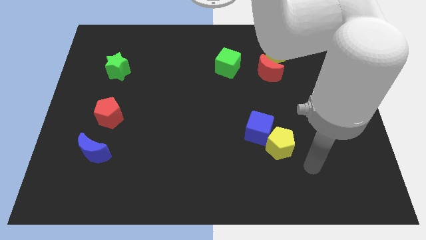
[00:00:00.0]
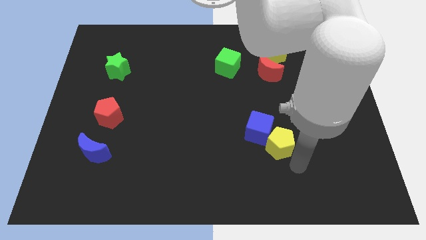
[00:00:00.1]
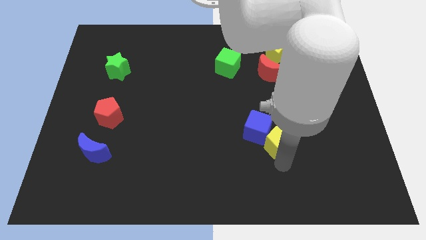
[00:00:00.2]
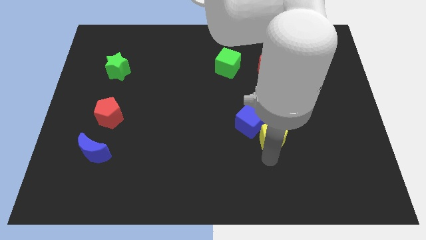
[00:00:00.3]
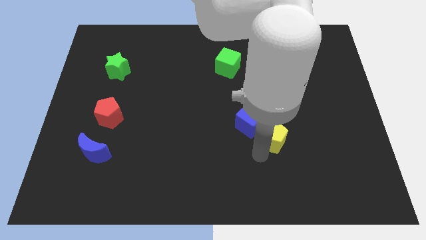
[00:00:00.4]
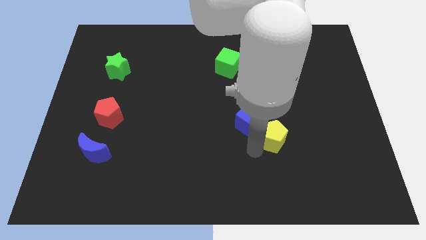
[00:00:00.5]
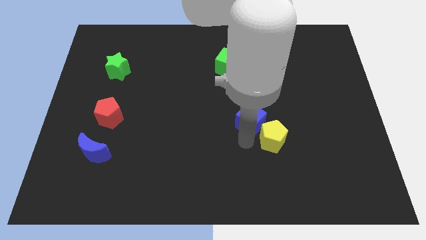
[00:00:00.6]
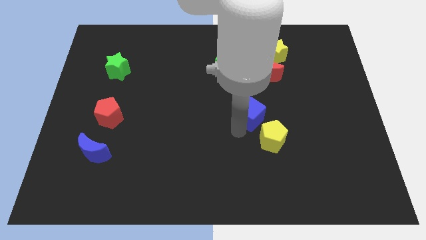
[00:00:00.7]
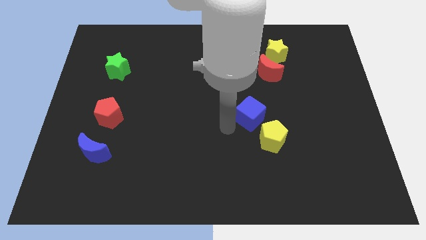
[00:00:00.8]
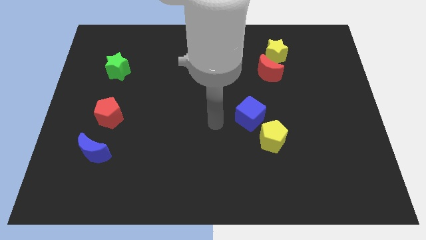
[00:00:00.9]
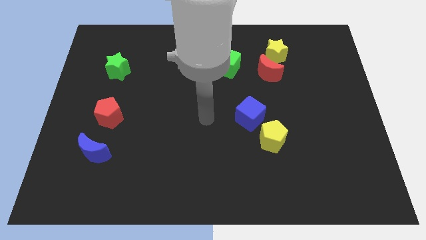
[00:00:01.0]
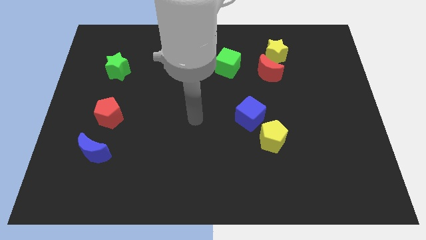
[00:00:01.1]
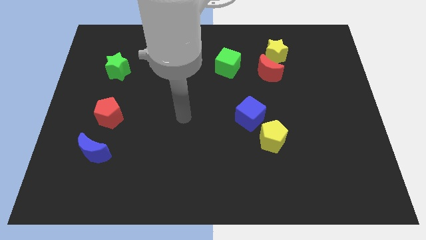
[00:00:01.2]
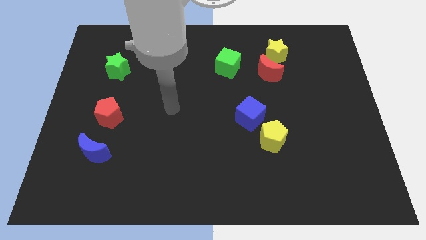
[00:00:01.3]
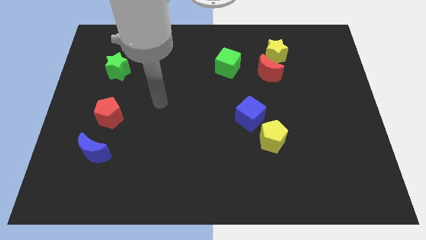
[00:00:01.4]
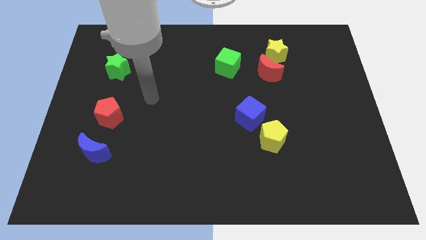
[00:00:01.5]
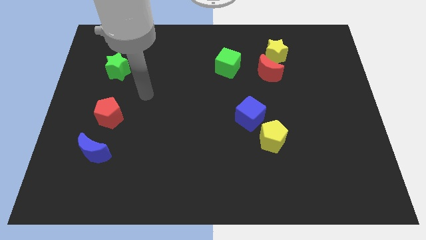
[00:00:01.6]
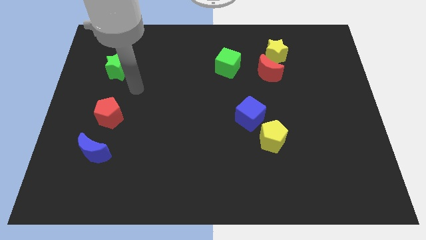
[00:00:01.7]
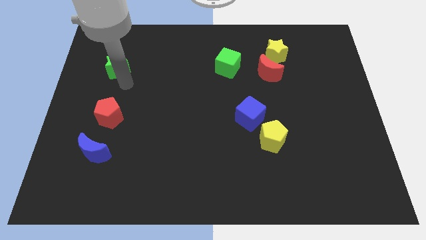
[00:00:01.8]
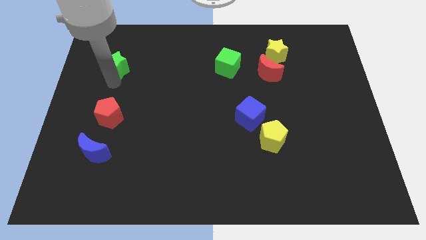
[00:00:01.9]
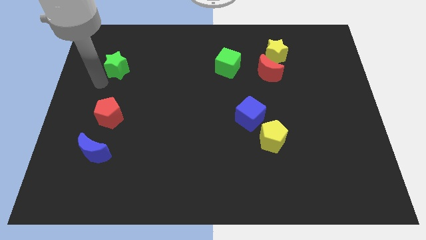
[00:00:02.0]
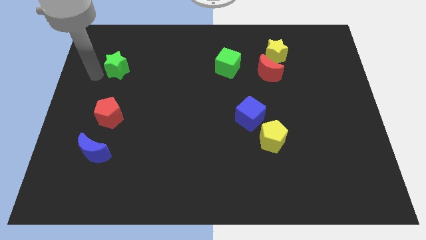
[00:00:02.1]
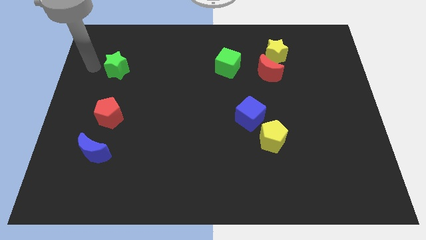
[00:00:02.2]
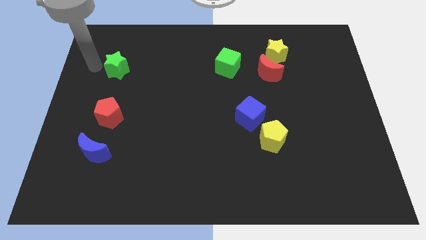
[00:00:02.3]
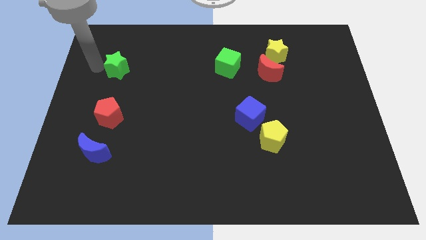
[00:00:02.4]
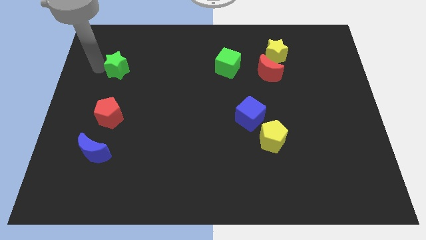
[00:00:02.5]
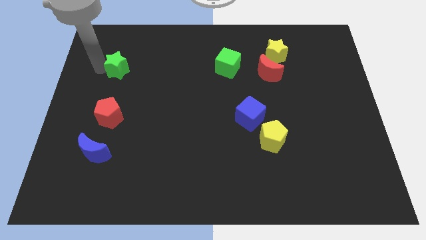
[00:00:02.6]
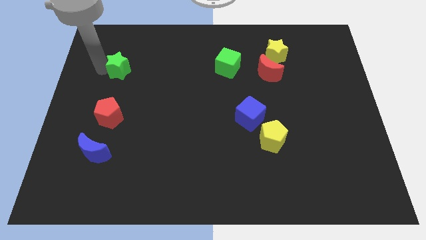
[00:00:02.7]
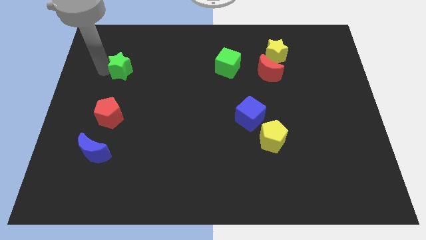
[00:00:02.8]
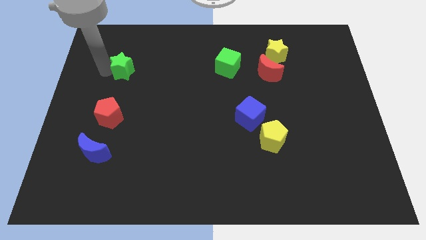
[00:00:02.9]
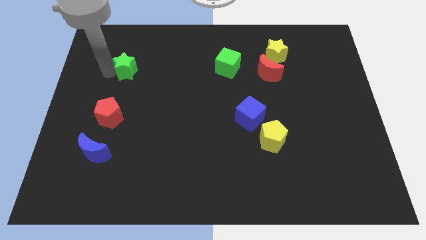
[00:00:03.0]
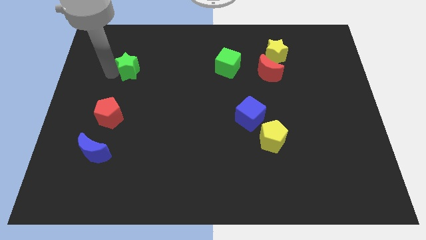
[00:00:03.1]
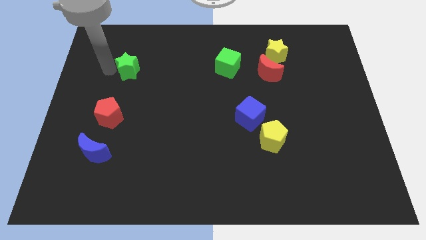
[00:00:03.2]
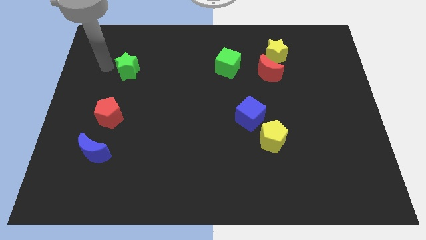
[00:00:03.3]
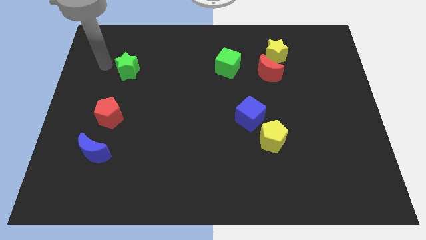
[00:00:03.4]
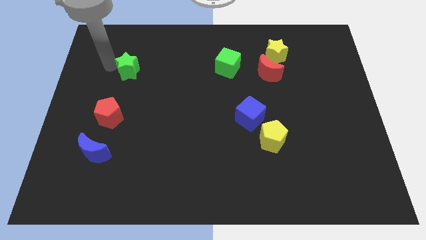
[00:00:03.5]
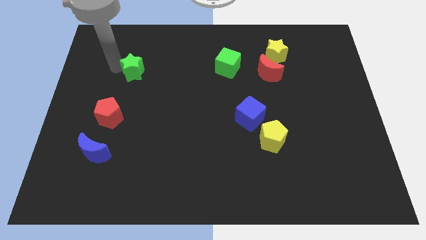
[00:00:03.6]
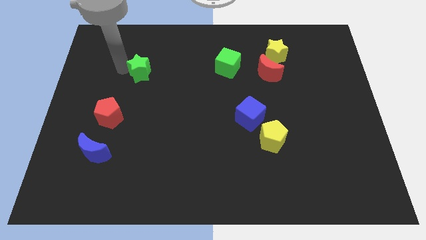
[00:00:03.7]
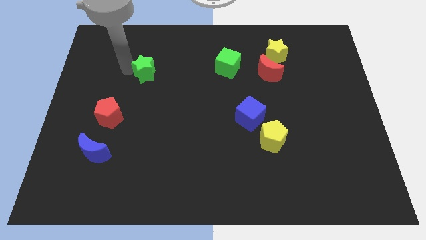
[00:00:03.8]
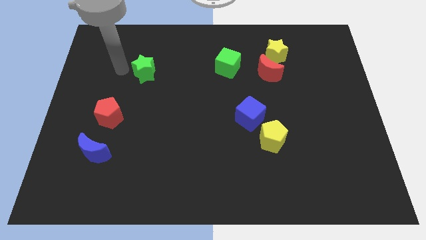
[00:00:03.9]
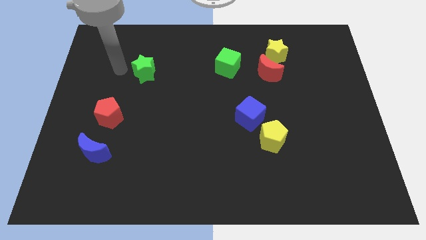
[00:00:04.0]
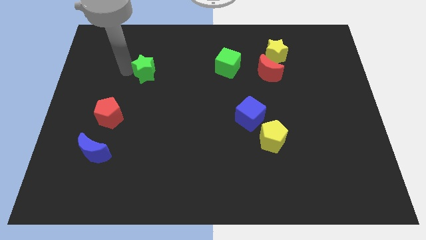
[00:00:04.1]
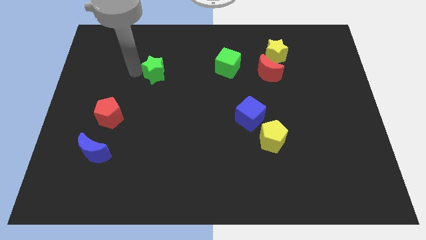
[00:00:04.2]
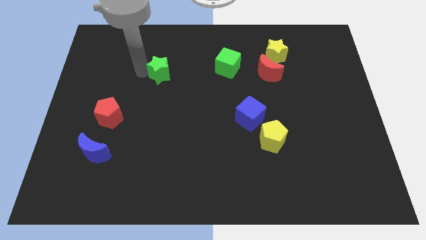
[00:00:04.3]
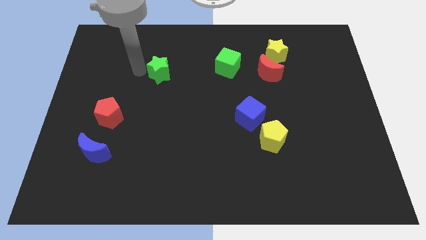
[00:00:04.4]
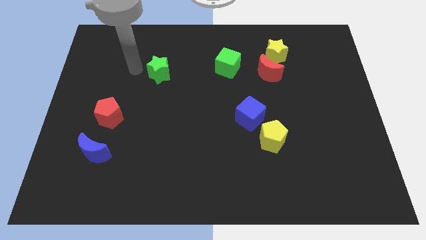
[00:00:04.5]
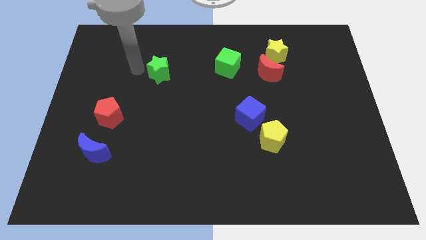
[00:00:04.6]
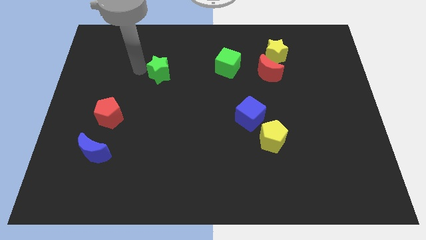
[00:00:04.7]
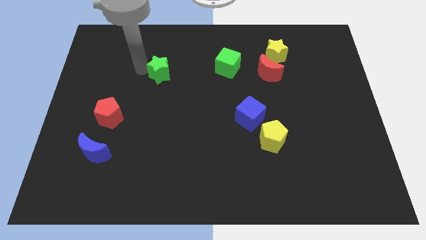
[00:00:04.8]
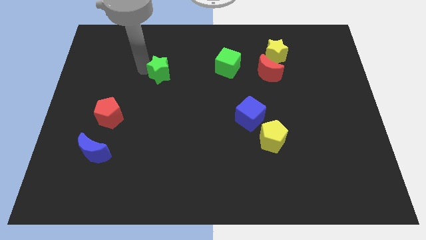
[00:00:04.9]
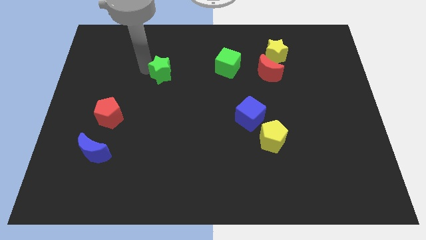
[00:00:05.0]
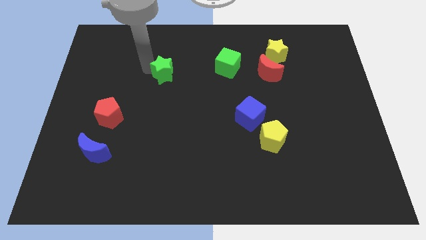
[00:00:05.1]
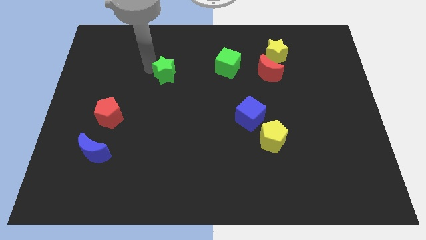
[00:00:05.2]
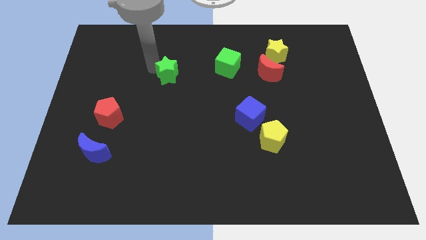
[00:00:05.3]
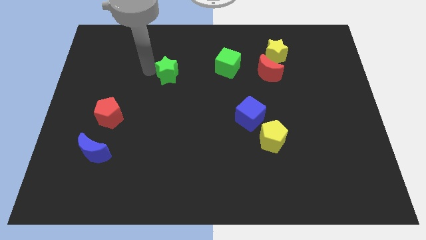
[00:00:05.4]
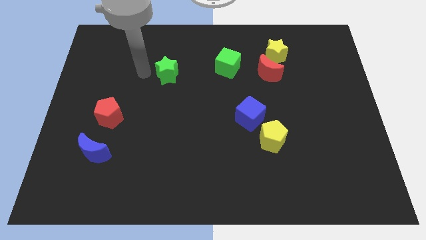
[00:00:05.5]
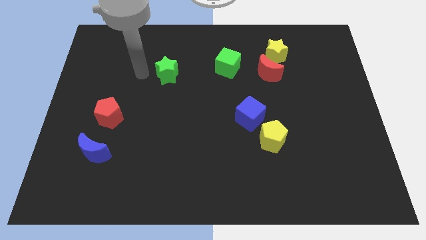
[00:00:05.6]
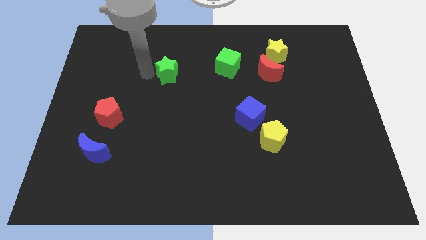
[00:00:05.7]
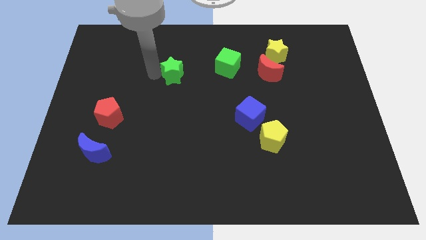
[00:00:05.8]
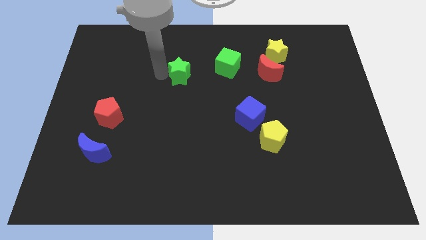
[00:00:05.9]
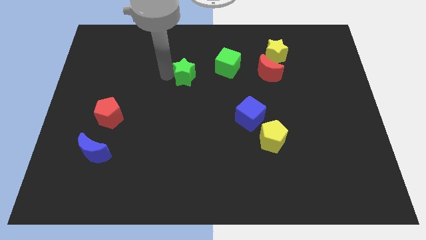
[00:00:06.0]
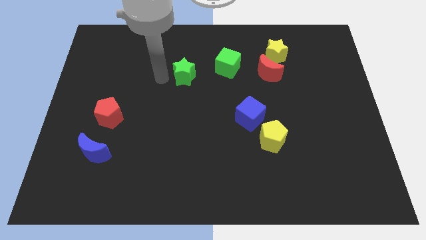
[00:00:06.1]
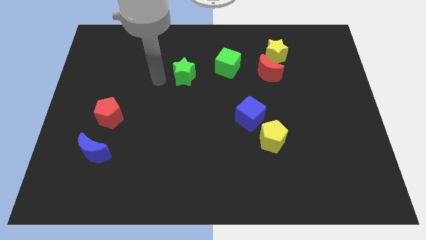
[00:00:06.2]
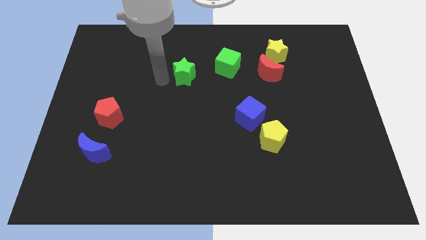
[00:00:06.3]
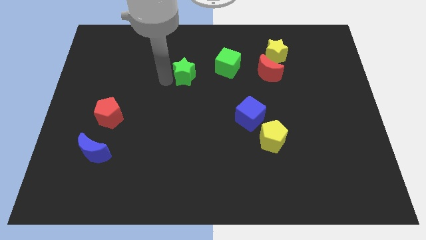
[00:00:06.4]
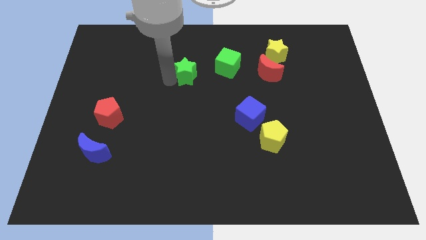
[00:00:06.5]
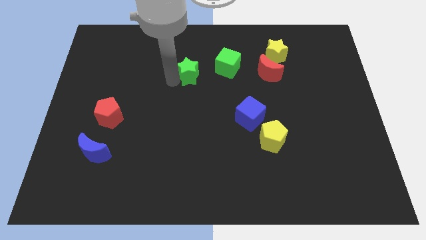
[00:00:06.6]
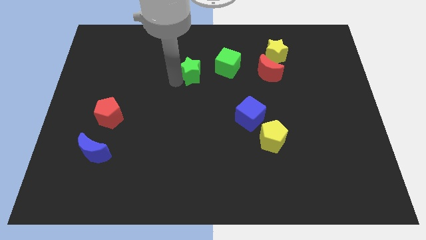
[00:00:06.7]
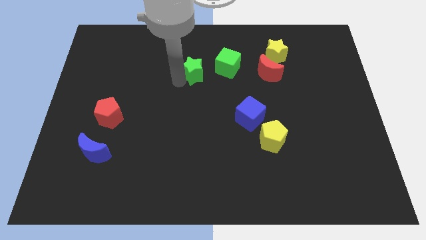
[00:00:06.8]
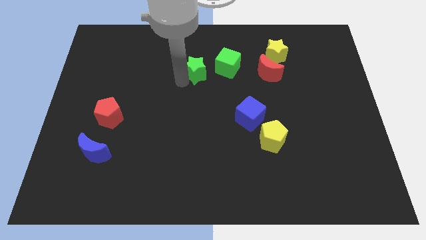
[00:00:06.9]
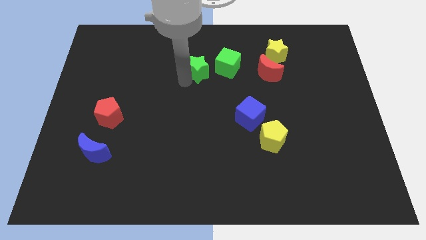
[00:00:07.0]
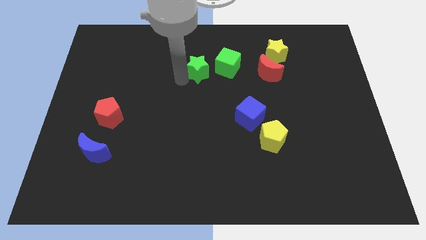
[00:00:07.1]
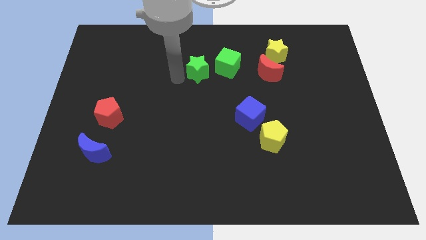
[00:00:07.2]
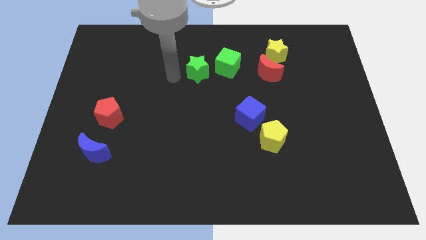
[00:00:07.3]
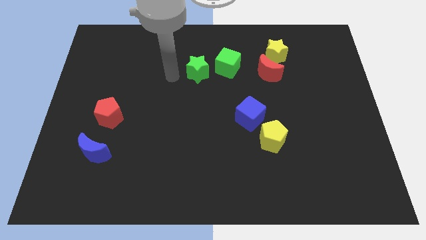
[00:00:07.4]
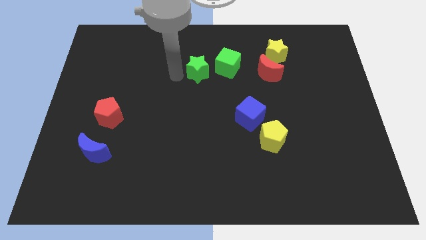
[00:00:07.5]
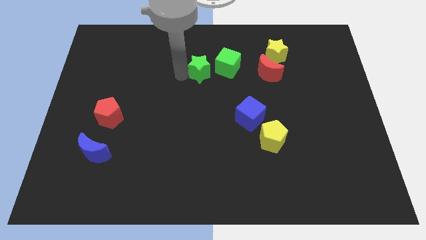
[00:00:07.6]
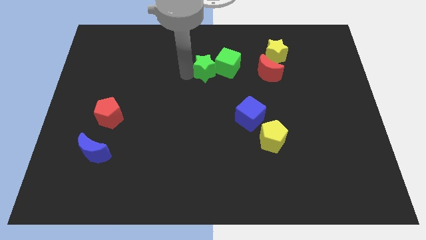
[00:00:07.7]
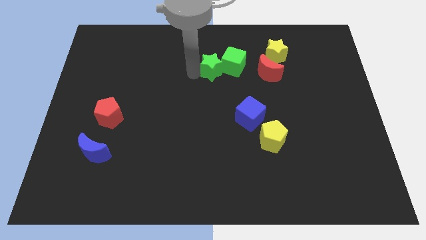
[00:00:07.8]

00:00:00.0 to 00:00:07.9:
put the green star close to the green cube
